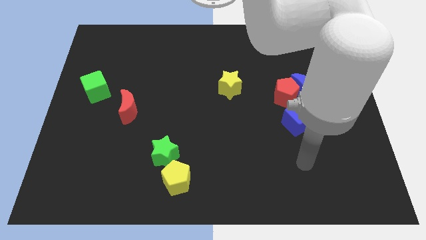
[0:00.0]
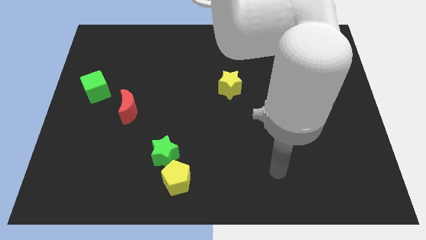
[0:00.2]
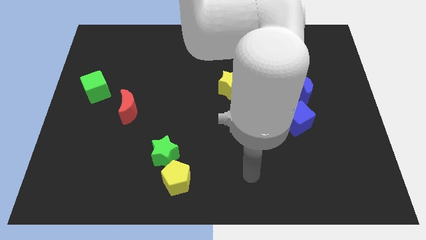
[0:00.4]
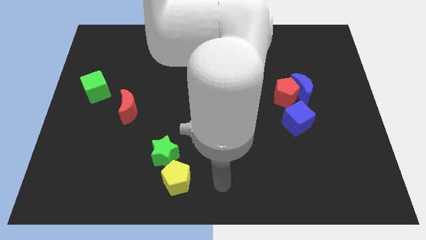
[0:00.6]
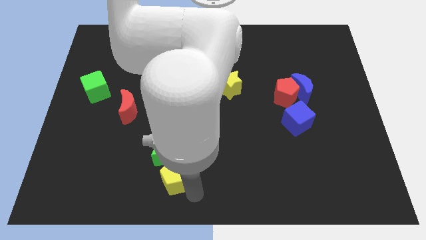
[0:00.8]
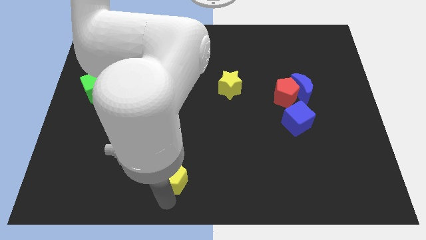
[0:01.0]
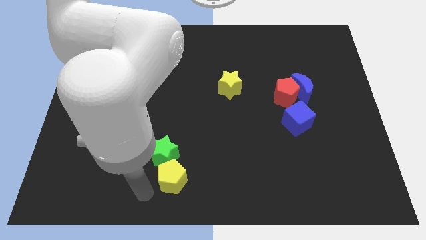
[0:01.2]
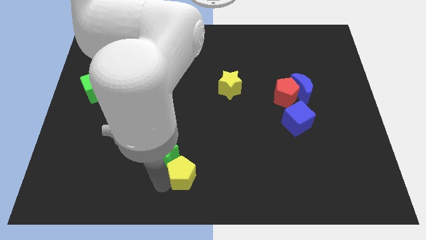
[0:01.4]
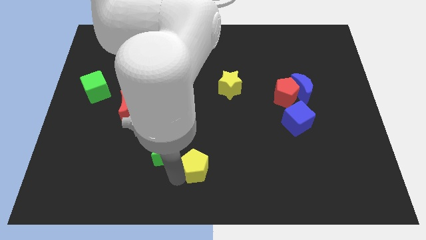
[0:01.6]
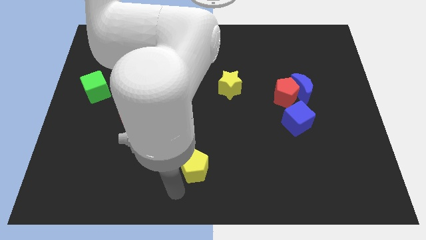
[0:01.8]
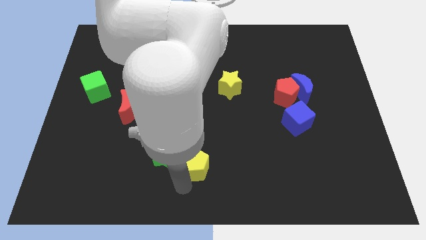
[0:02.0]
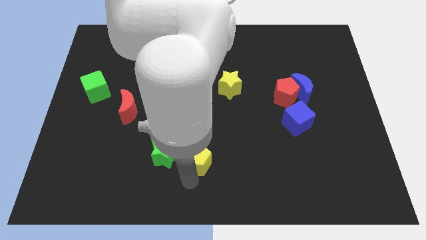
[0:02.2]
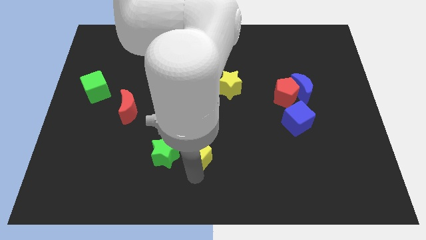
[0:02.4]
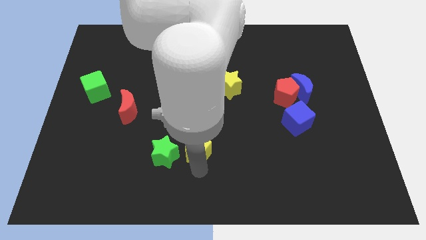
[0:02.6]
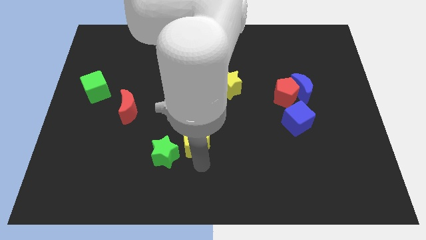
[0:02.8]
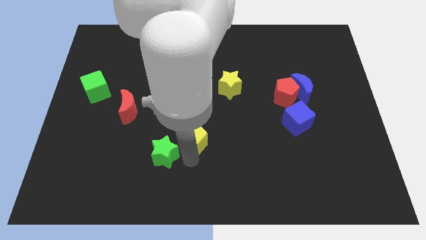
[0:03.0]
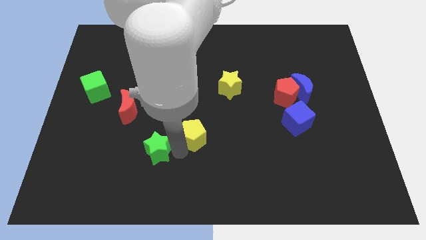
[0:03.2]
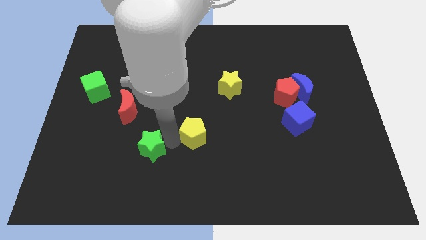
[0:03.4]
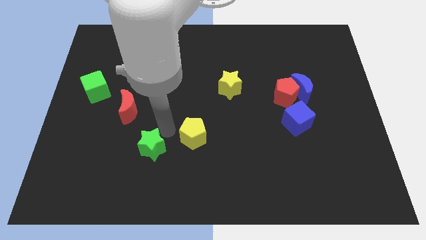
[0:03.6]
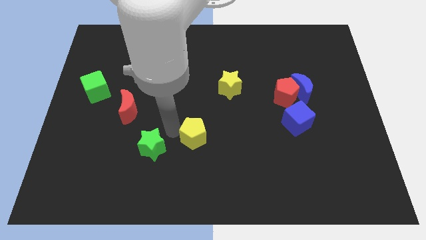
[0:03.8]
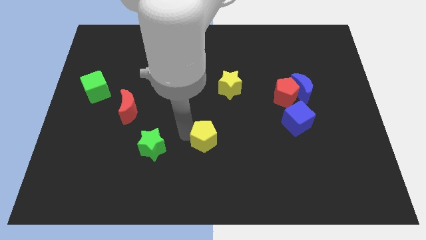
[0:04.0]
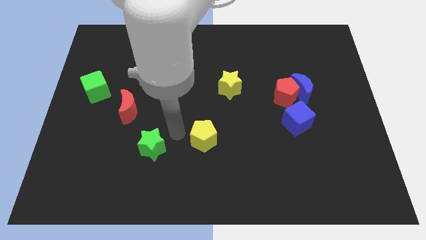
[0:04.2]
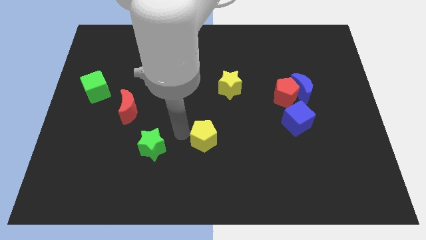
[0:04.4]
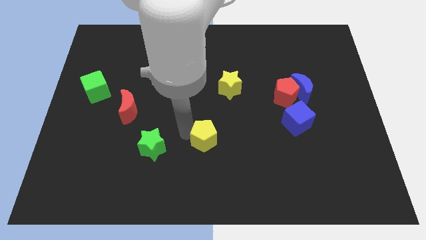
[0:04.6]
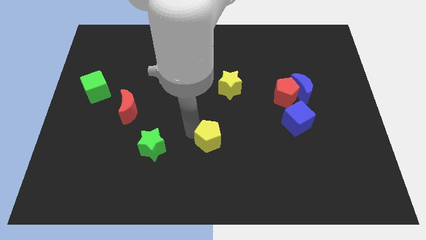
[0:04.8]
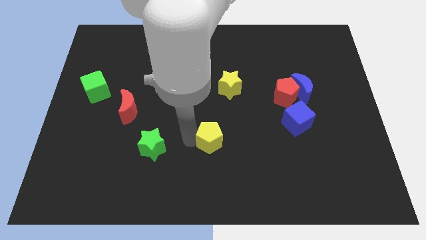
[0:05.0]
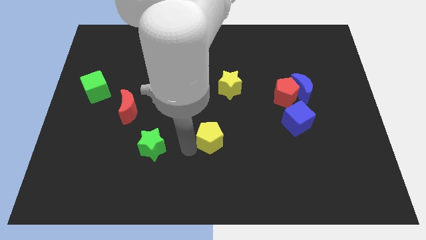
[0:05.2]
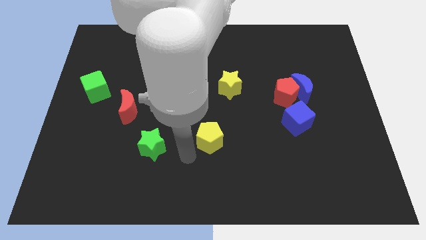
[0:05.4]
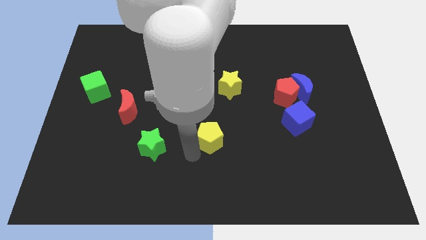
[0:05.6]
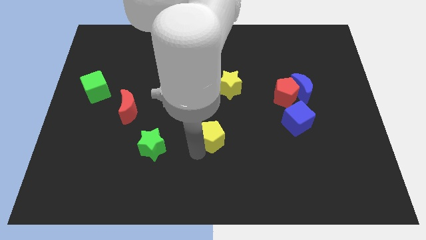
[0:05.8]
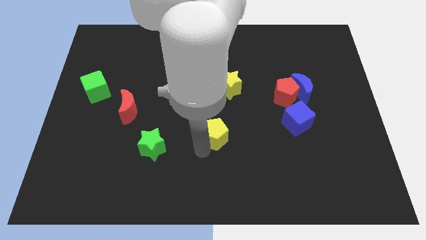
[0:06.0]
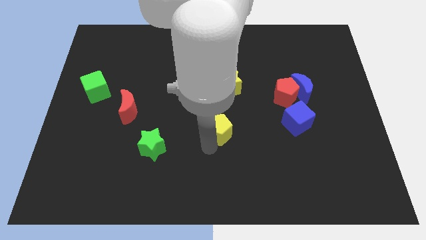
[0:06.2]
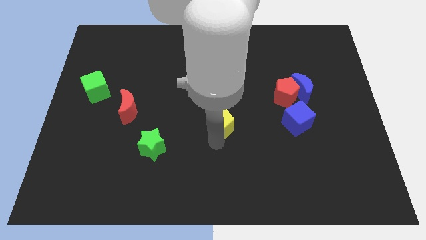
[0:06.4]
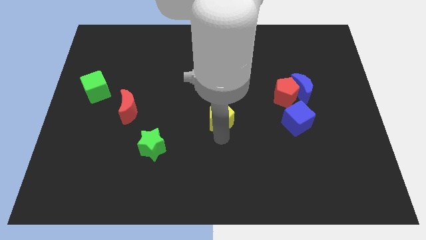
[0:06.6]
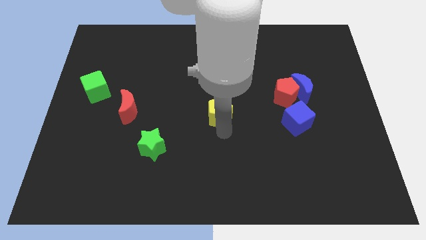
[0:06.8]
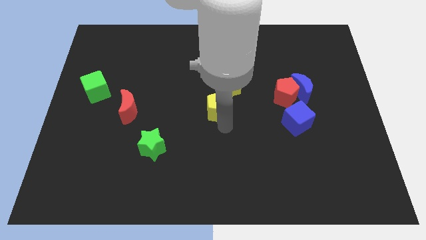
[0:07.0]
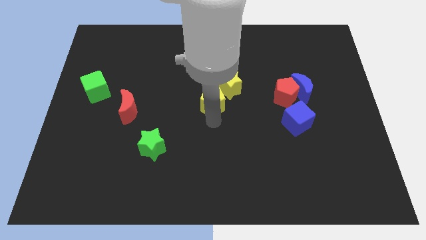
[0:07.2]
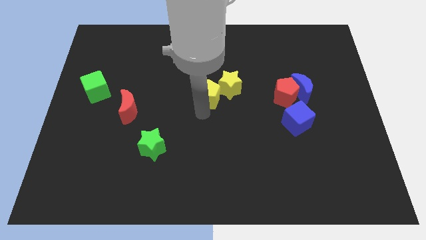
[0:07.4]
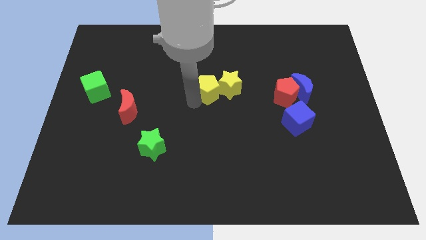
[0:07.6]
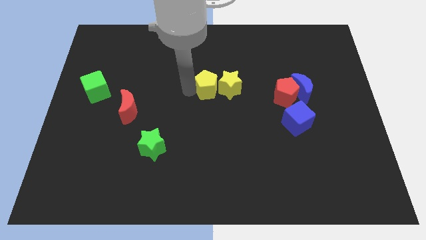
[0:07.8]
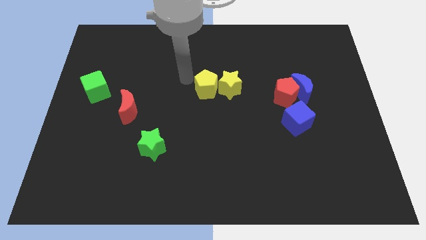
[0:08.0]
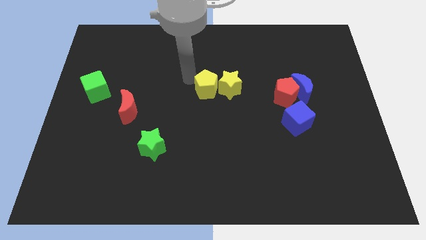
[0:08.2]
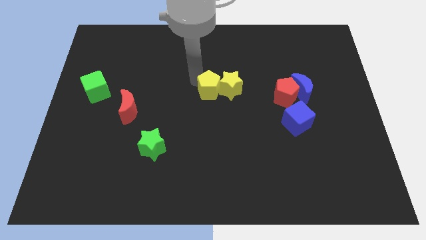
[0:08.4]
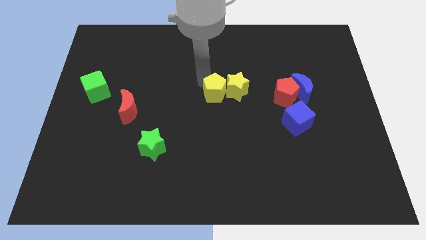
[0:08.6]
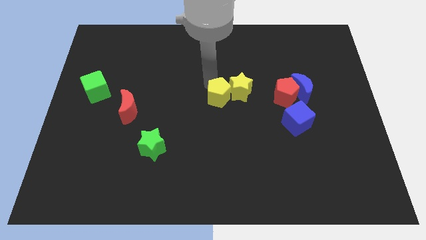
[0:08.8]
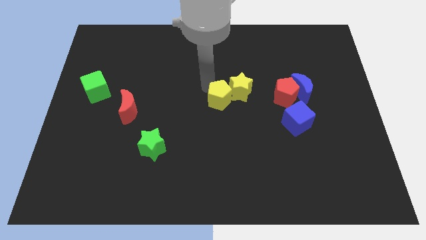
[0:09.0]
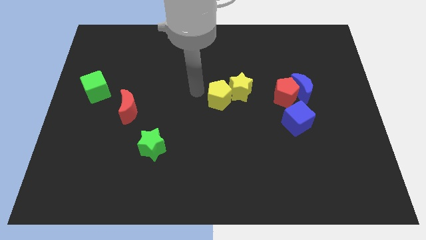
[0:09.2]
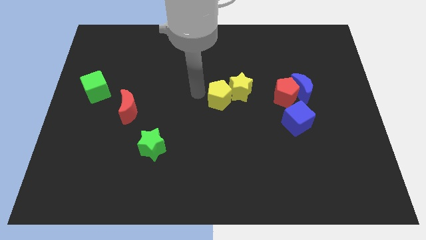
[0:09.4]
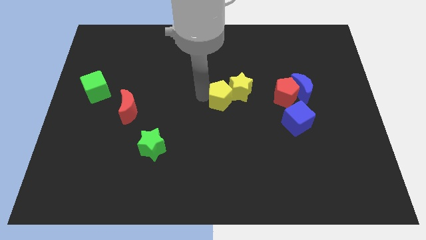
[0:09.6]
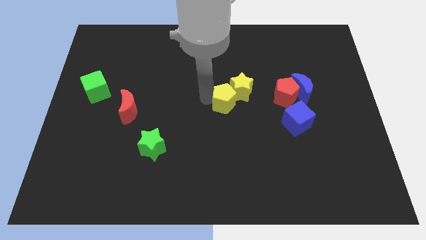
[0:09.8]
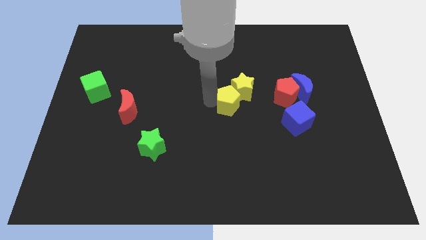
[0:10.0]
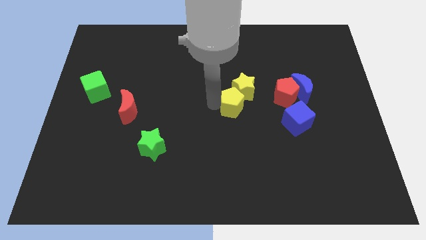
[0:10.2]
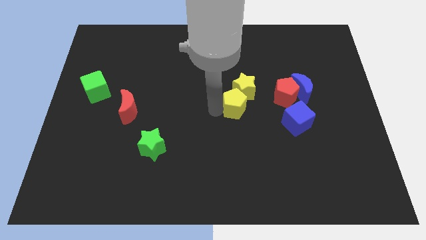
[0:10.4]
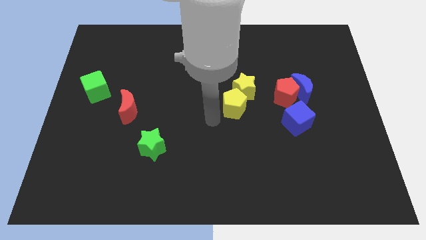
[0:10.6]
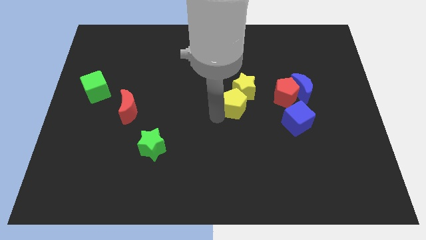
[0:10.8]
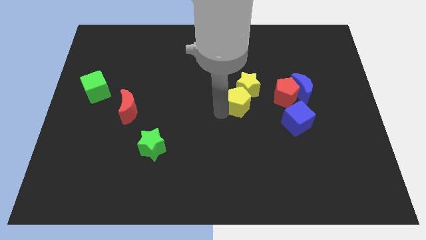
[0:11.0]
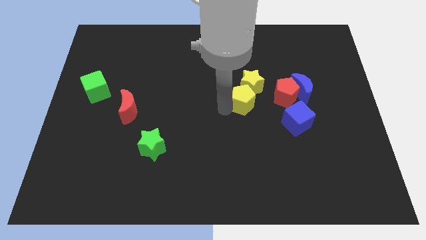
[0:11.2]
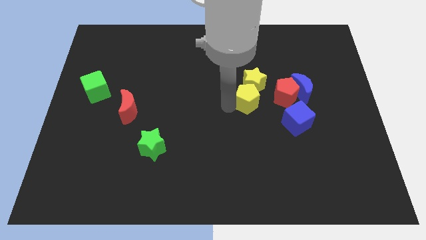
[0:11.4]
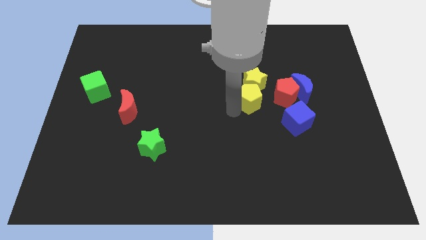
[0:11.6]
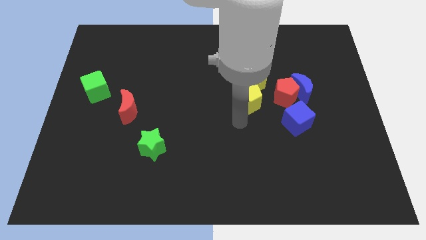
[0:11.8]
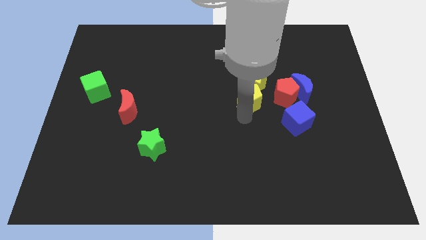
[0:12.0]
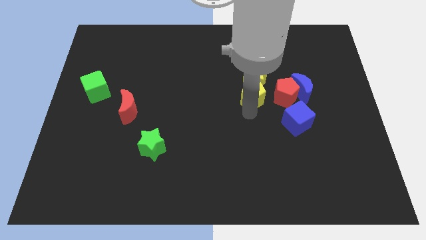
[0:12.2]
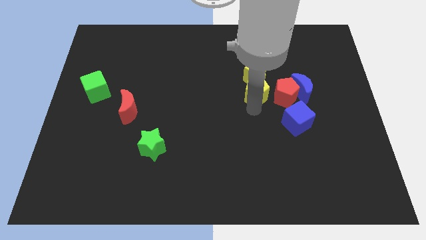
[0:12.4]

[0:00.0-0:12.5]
push the yellow pentagon to the top left of the red pentagon

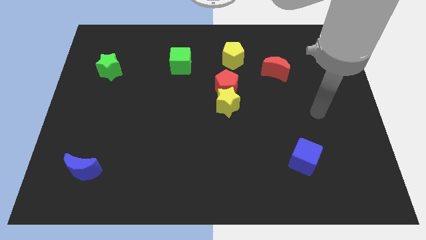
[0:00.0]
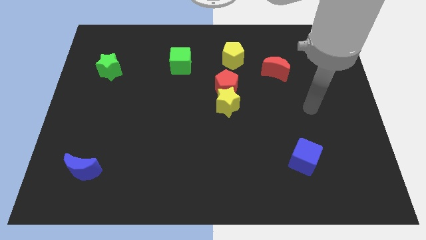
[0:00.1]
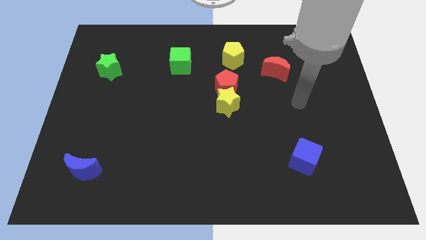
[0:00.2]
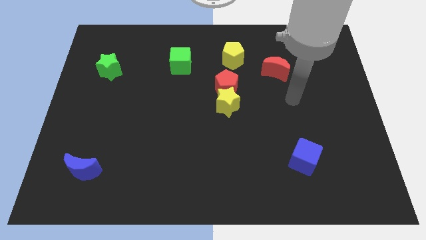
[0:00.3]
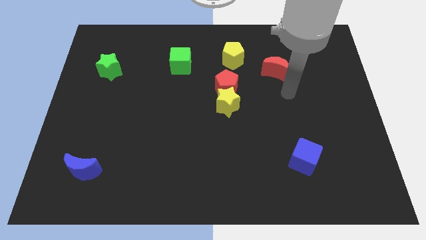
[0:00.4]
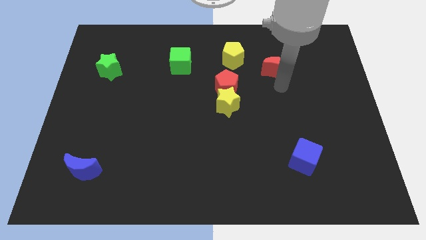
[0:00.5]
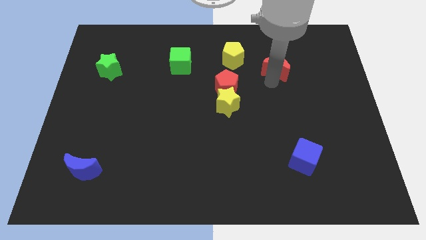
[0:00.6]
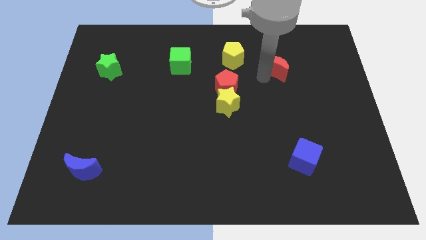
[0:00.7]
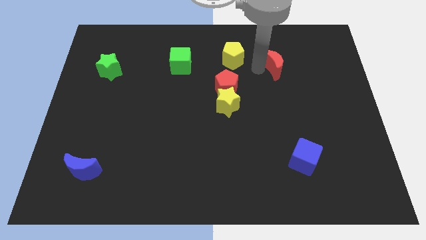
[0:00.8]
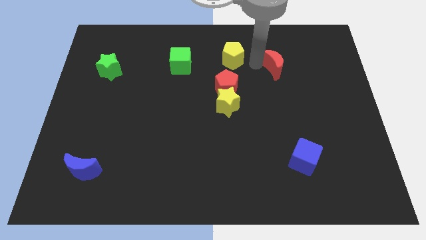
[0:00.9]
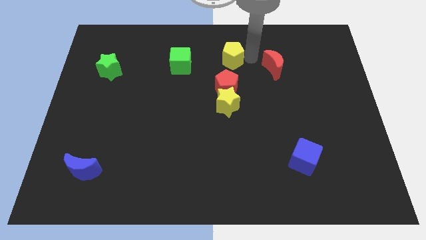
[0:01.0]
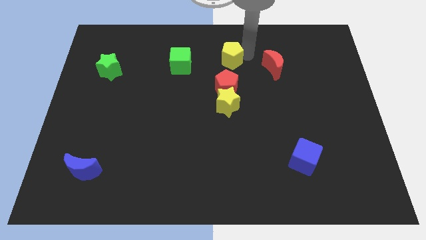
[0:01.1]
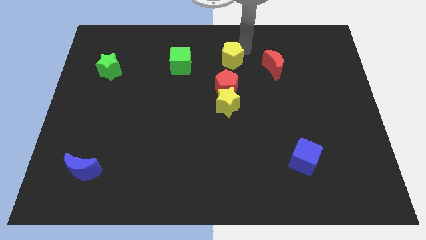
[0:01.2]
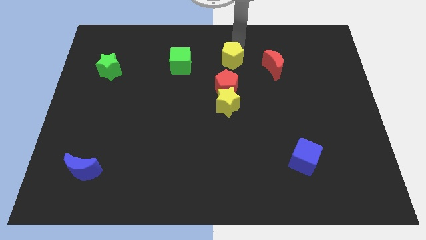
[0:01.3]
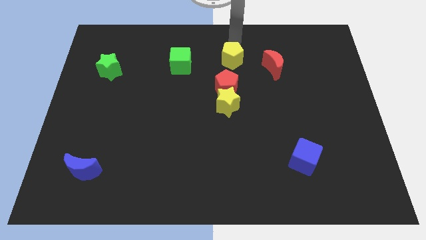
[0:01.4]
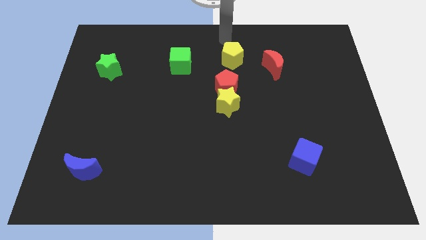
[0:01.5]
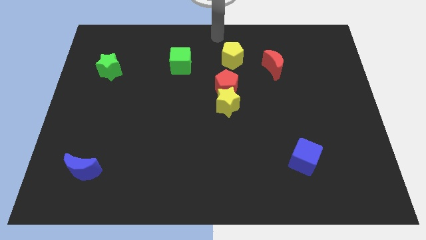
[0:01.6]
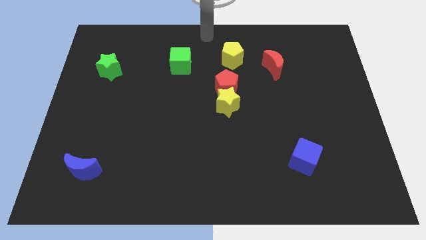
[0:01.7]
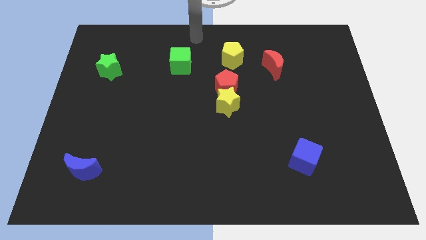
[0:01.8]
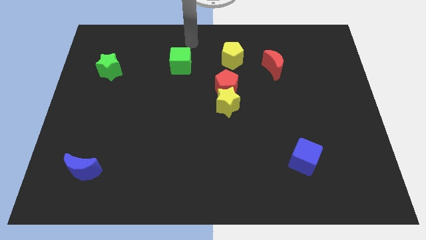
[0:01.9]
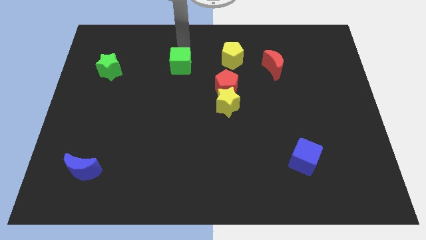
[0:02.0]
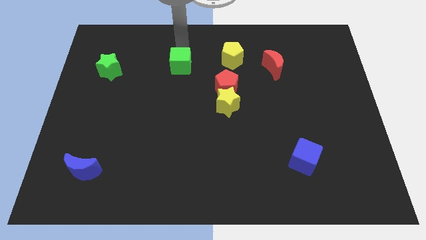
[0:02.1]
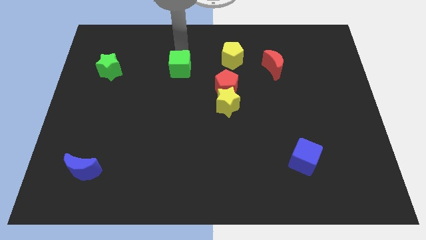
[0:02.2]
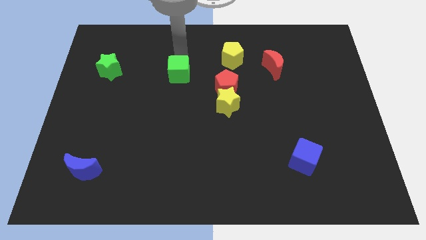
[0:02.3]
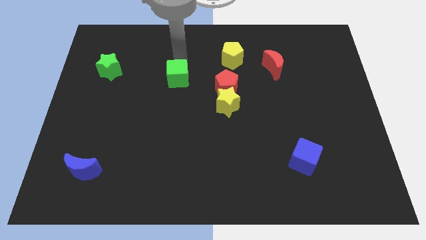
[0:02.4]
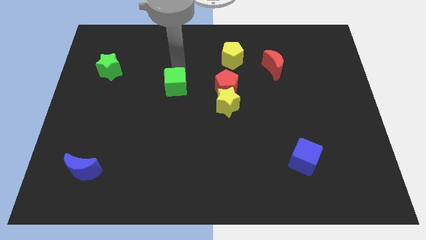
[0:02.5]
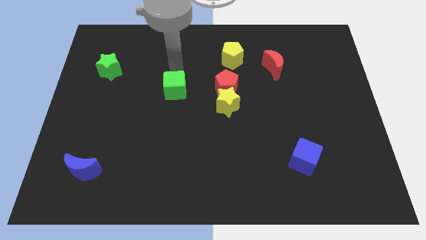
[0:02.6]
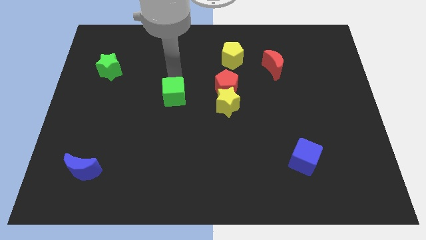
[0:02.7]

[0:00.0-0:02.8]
move the green cube left of the yellow star
